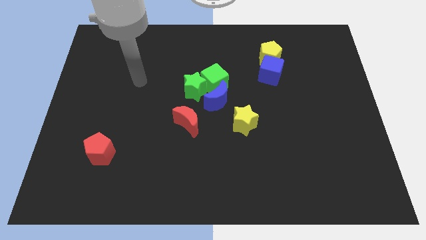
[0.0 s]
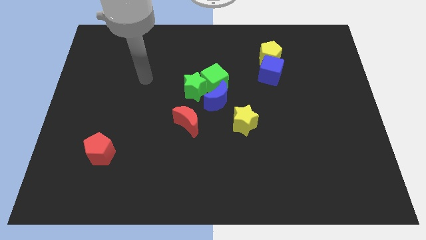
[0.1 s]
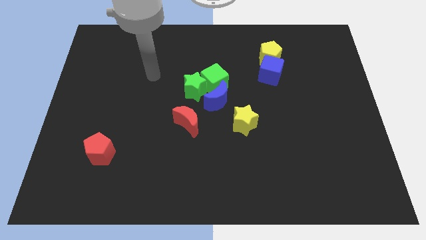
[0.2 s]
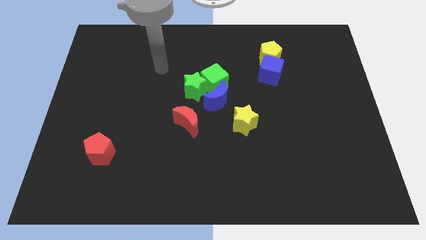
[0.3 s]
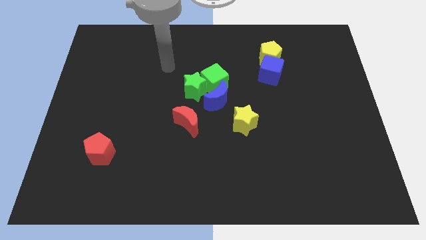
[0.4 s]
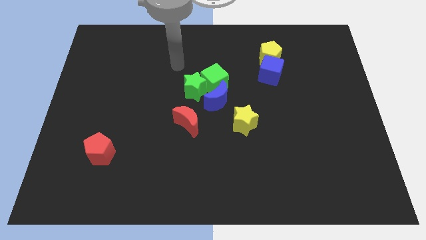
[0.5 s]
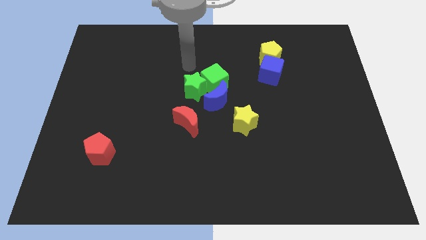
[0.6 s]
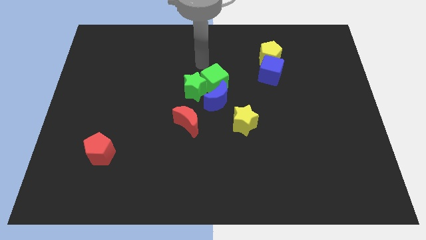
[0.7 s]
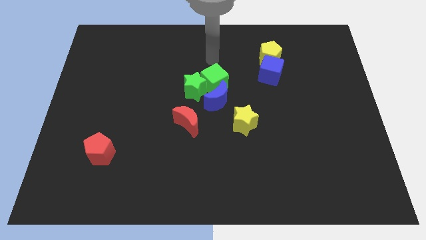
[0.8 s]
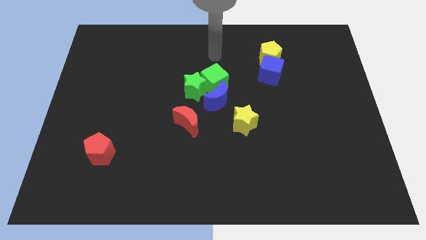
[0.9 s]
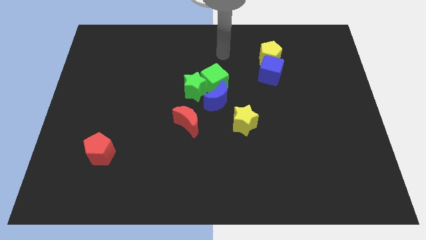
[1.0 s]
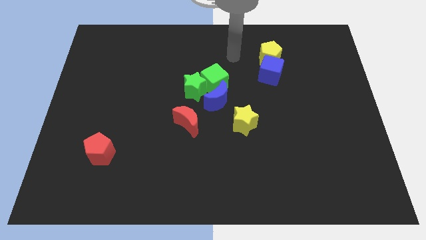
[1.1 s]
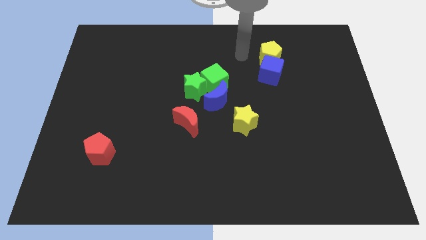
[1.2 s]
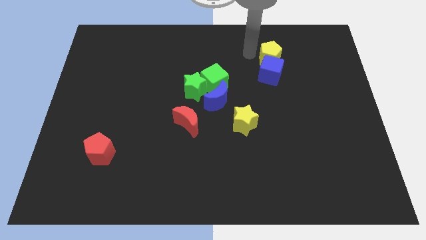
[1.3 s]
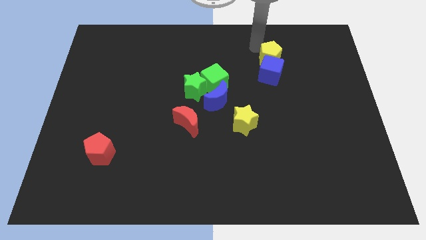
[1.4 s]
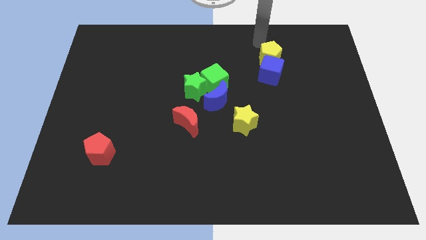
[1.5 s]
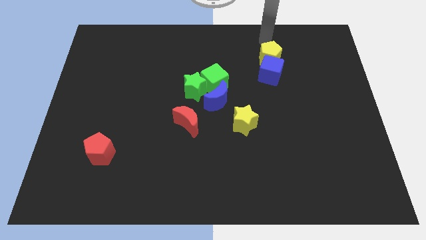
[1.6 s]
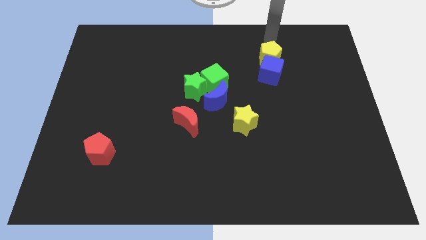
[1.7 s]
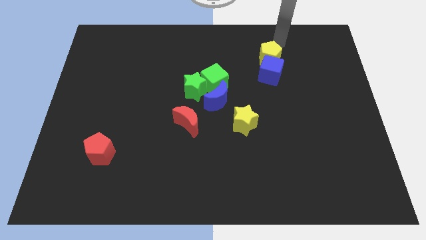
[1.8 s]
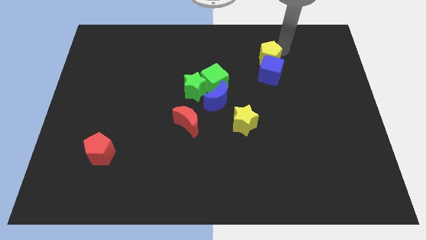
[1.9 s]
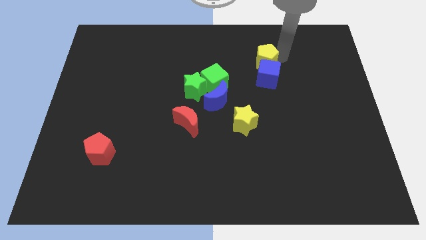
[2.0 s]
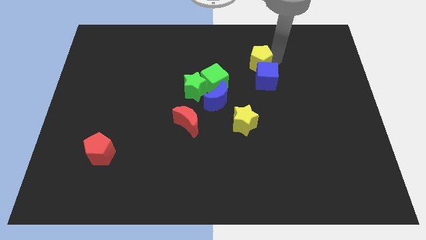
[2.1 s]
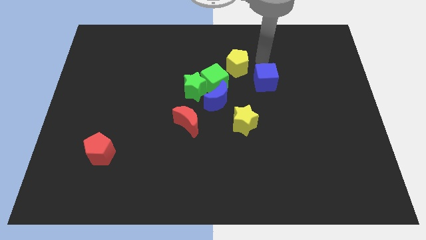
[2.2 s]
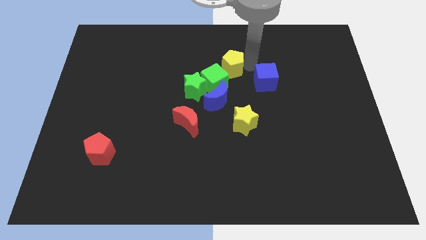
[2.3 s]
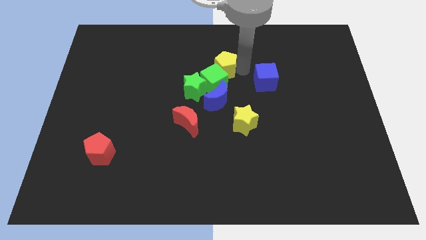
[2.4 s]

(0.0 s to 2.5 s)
pull the blue cube apart from the yellow pentagon

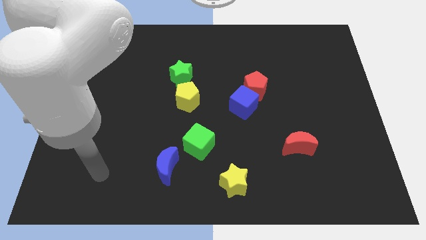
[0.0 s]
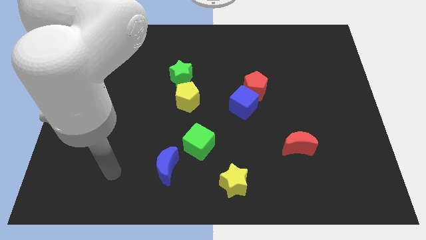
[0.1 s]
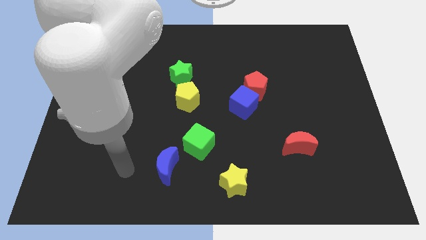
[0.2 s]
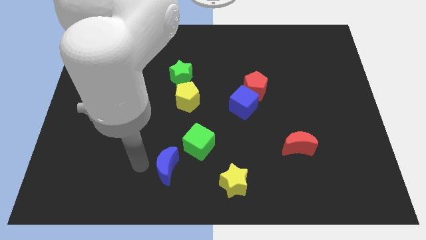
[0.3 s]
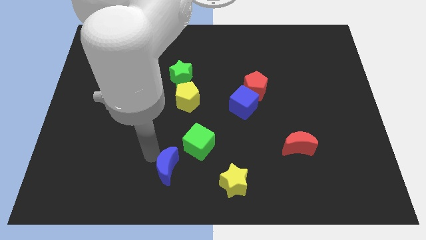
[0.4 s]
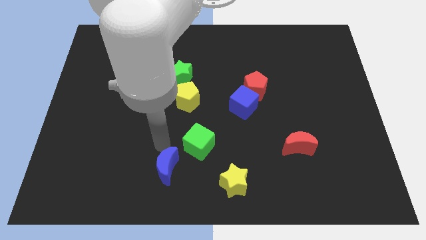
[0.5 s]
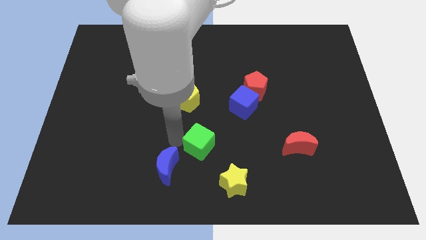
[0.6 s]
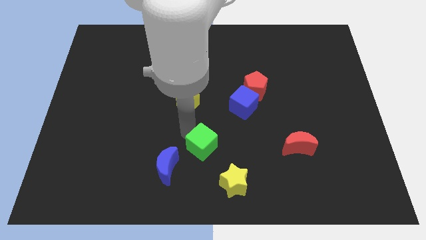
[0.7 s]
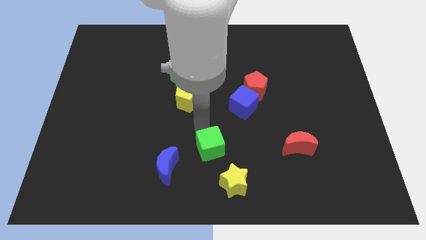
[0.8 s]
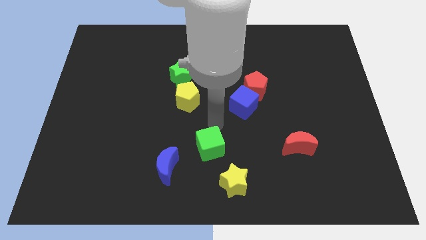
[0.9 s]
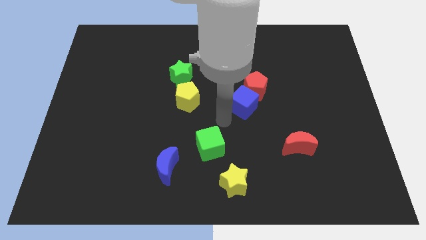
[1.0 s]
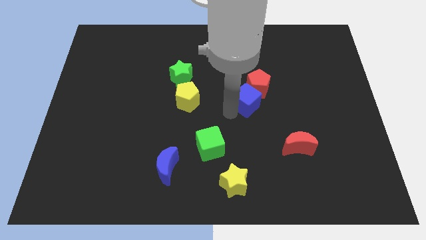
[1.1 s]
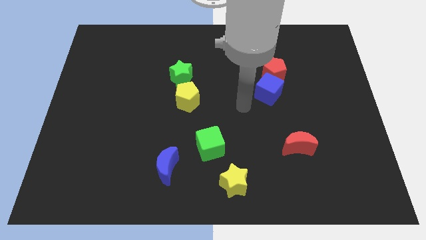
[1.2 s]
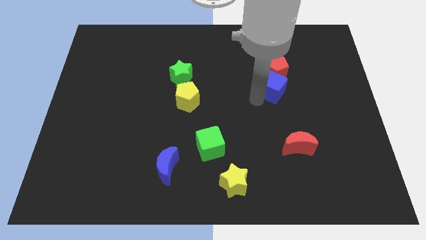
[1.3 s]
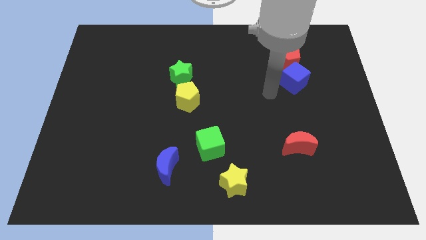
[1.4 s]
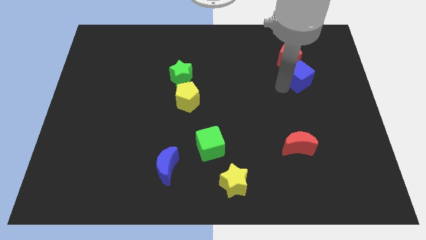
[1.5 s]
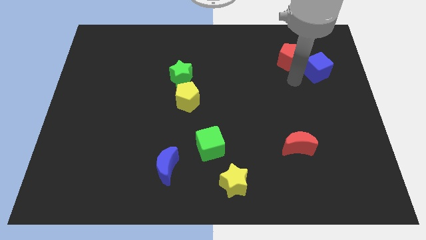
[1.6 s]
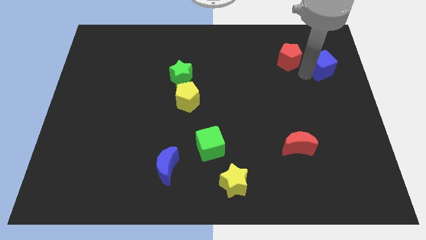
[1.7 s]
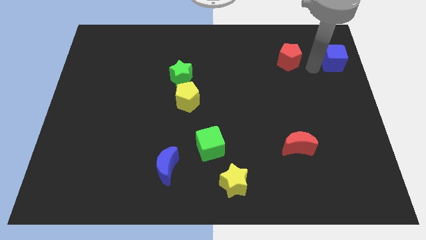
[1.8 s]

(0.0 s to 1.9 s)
move the red pentagon away from the blue cube

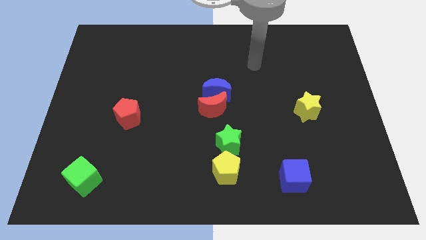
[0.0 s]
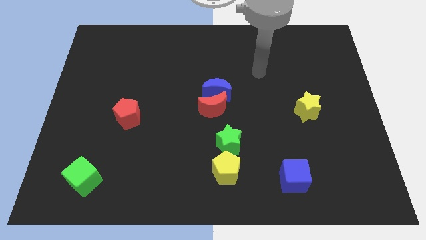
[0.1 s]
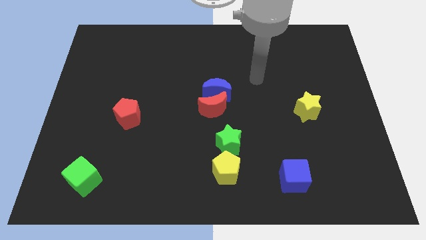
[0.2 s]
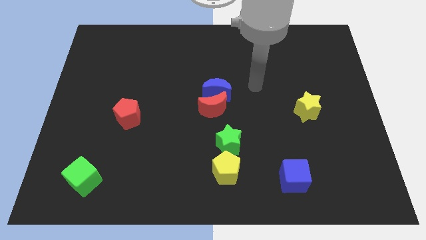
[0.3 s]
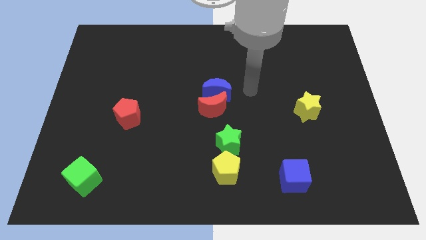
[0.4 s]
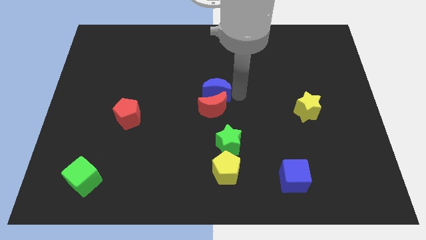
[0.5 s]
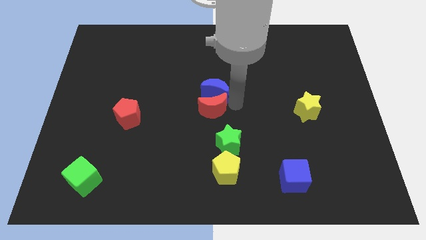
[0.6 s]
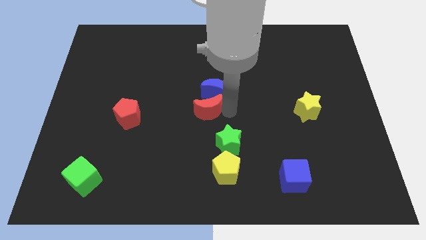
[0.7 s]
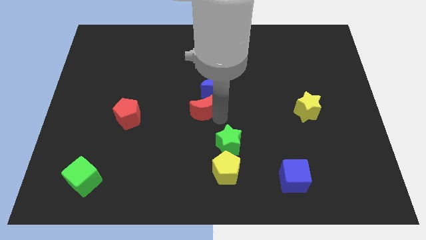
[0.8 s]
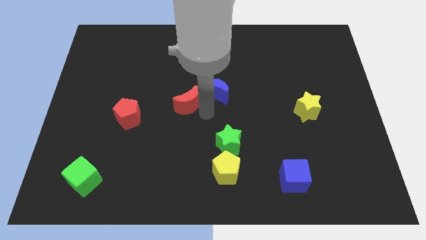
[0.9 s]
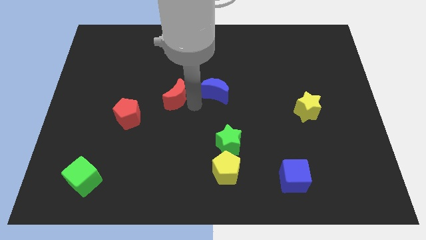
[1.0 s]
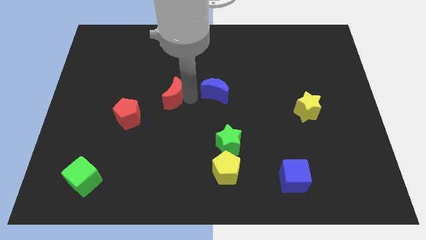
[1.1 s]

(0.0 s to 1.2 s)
move the blue moon away from the red moon

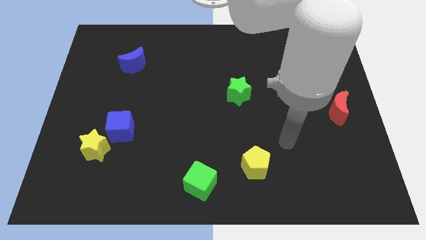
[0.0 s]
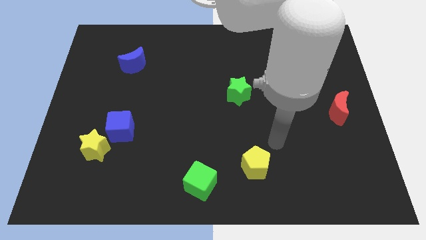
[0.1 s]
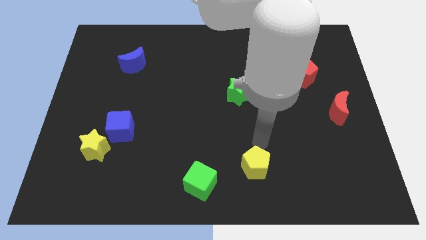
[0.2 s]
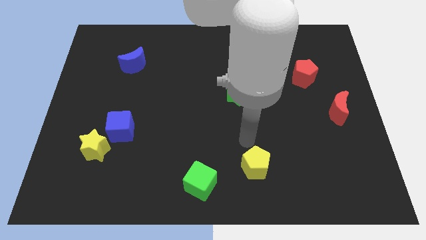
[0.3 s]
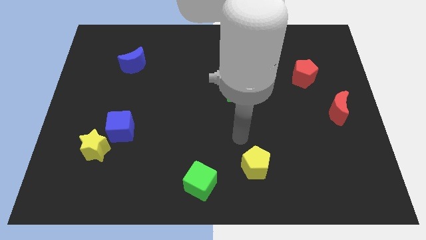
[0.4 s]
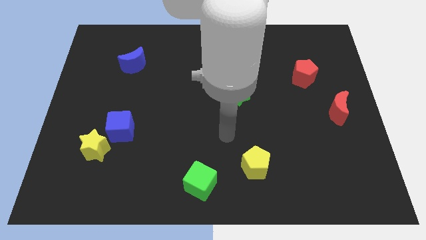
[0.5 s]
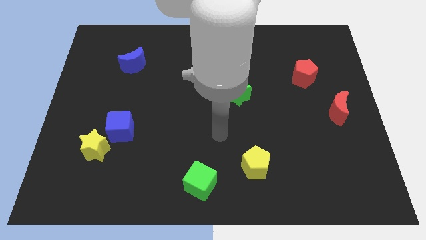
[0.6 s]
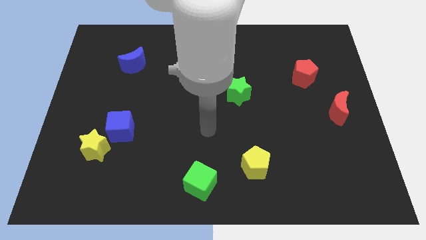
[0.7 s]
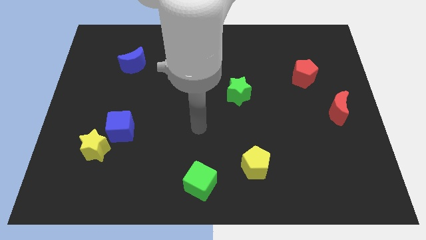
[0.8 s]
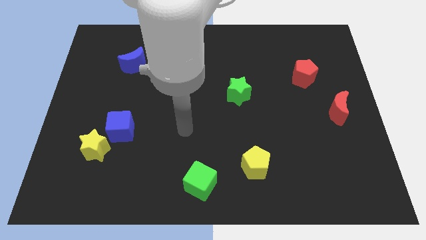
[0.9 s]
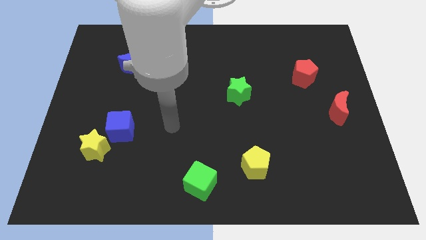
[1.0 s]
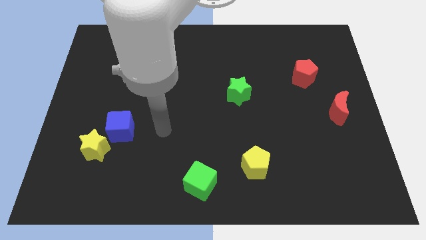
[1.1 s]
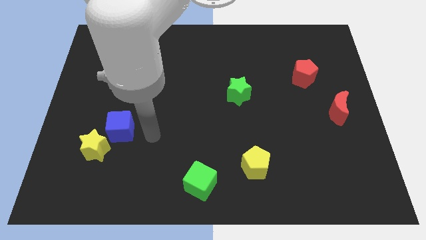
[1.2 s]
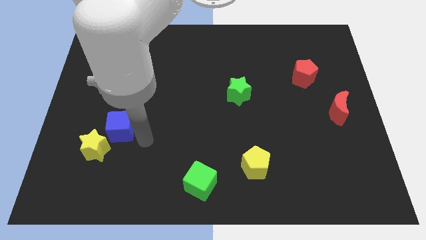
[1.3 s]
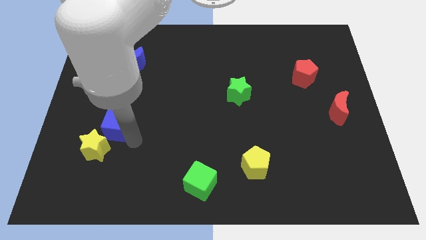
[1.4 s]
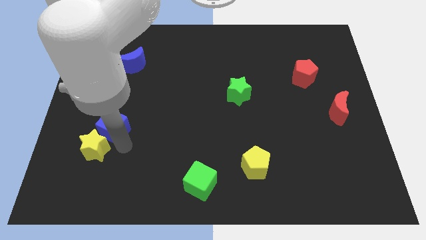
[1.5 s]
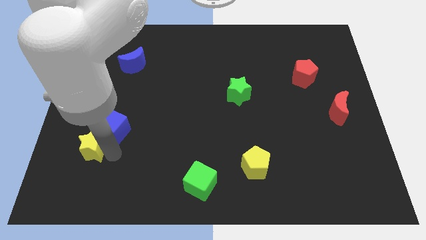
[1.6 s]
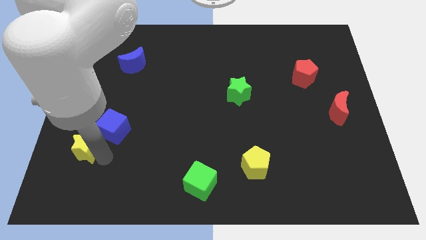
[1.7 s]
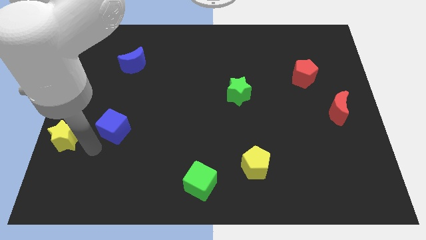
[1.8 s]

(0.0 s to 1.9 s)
move the blue cube away from the yellow star

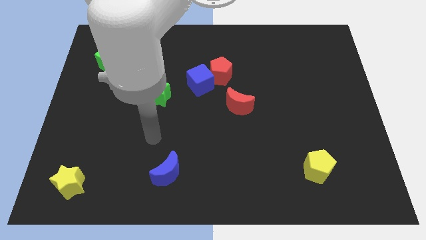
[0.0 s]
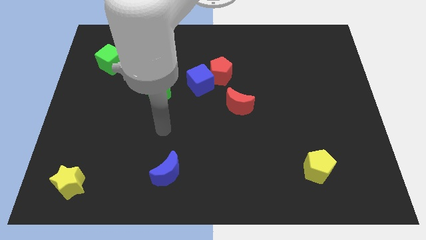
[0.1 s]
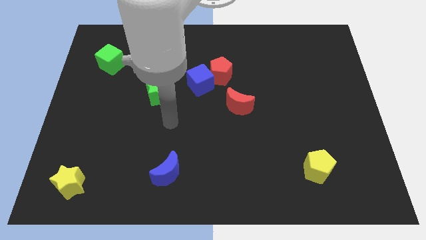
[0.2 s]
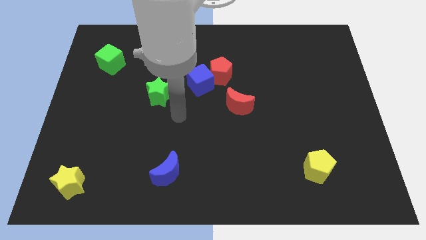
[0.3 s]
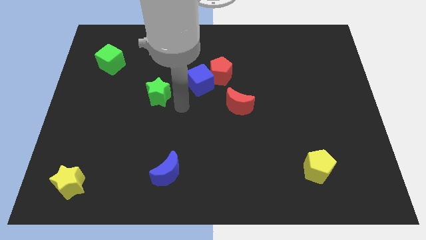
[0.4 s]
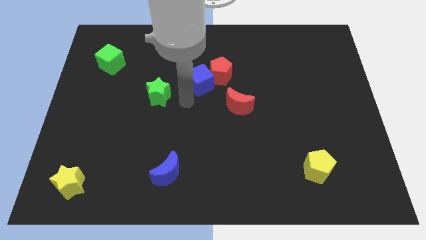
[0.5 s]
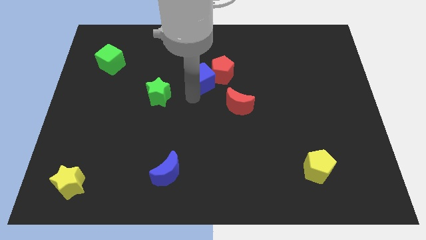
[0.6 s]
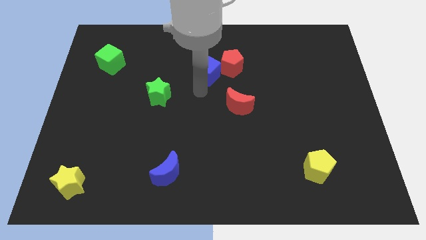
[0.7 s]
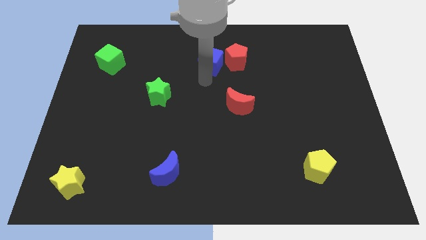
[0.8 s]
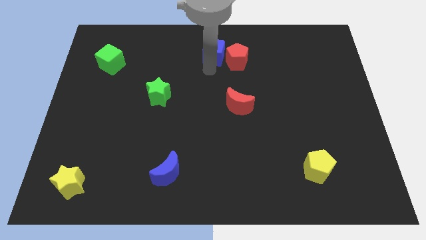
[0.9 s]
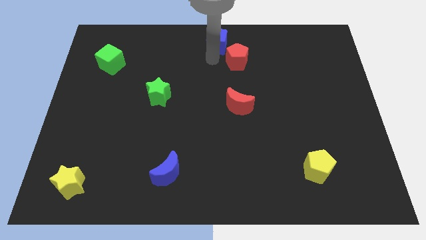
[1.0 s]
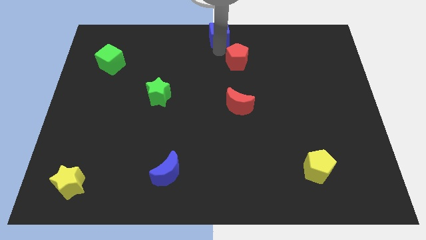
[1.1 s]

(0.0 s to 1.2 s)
pull the red pentagon apart from the blue cube

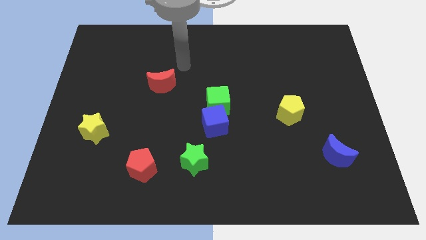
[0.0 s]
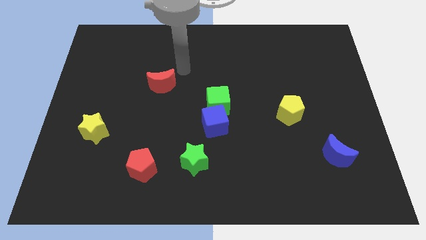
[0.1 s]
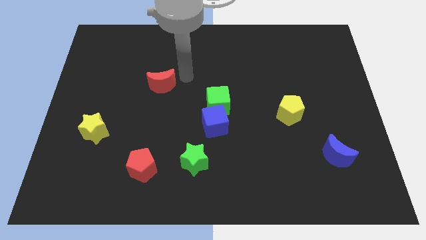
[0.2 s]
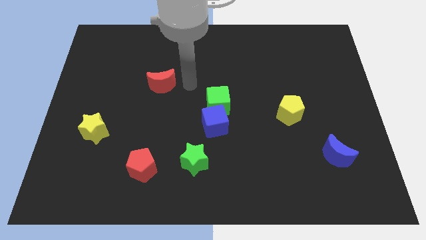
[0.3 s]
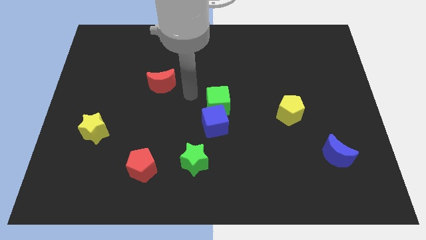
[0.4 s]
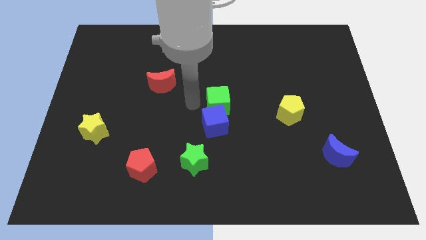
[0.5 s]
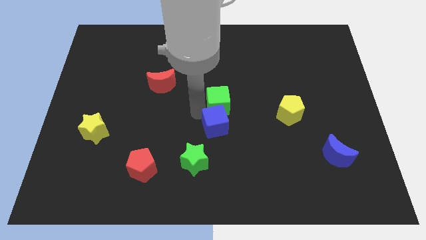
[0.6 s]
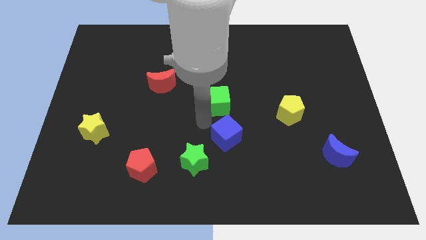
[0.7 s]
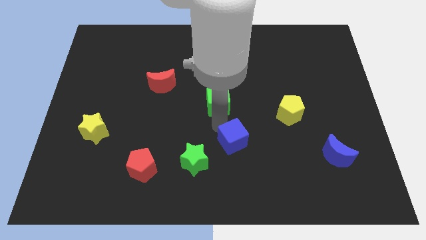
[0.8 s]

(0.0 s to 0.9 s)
pull the green cube apart from the blue cube
